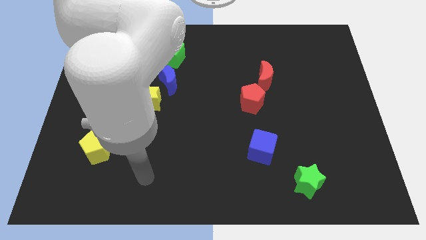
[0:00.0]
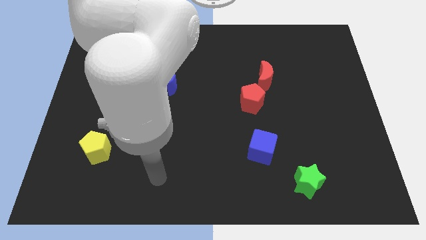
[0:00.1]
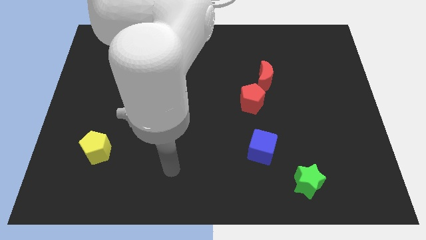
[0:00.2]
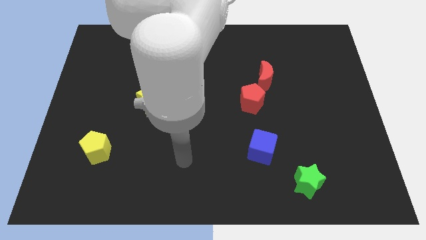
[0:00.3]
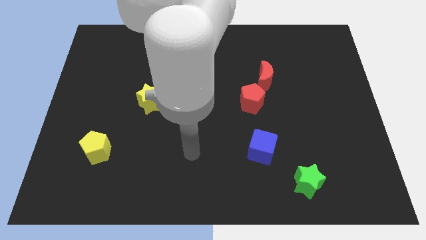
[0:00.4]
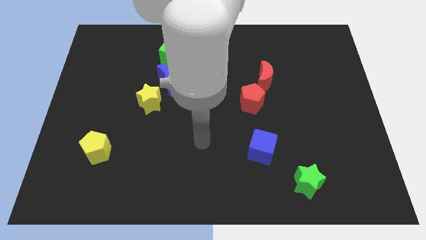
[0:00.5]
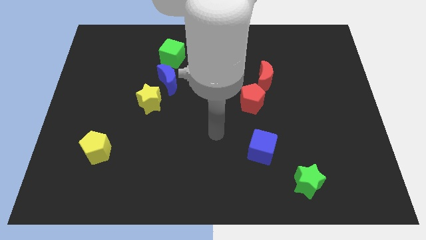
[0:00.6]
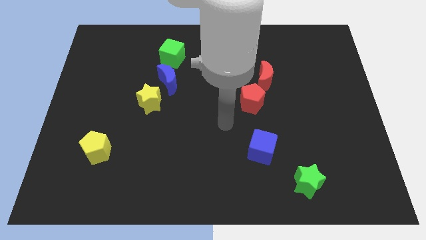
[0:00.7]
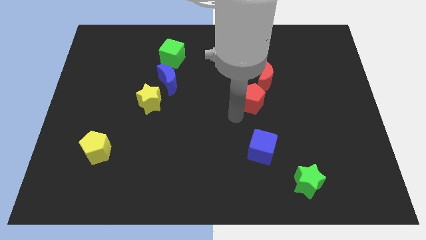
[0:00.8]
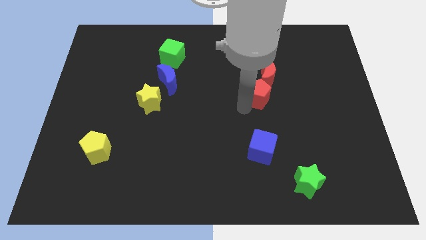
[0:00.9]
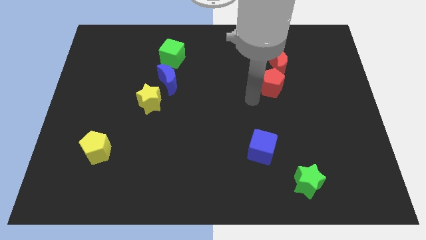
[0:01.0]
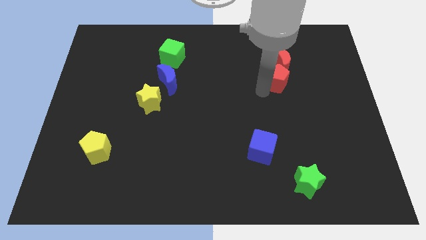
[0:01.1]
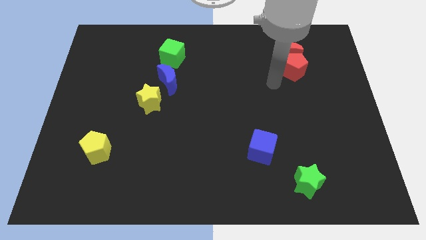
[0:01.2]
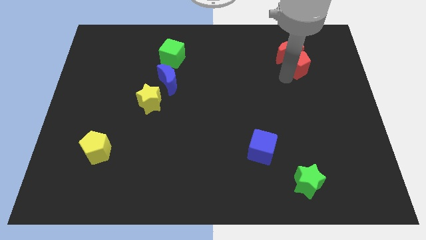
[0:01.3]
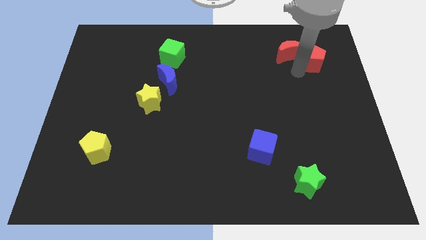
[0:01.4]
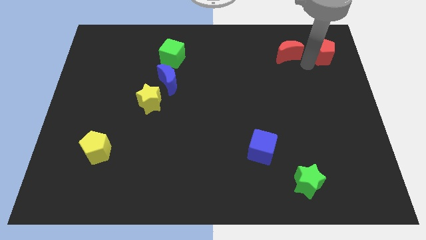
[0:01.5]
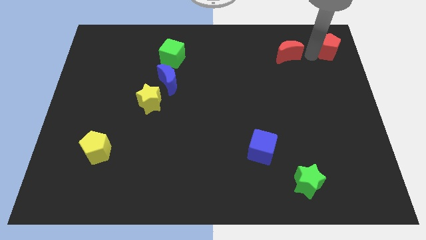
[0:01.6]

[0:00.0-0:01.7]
pull the red moon apart from the red pentagon

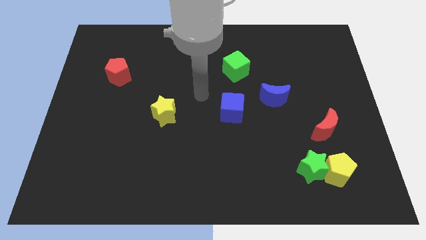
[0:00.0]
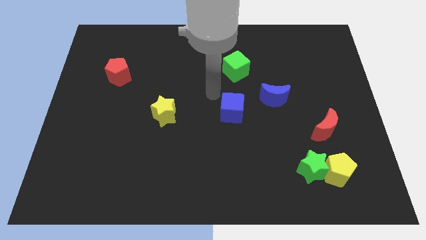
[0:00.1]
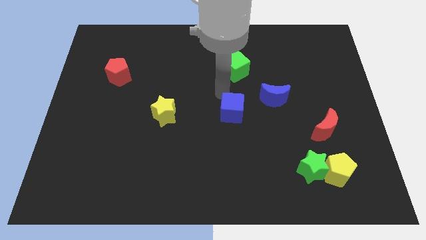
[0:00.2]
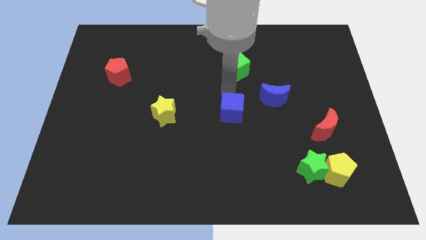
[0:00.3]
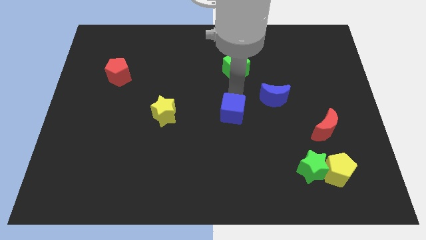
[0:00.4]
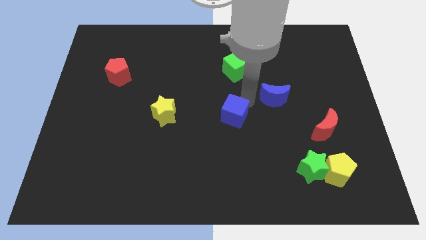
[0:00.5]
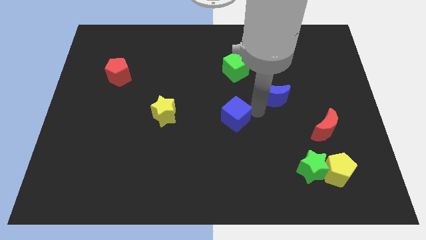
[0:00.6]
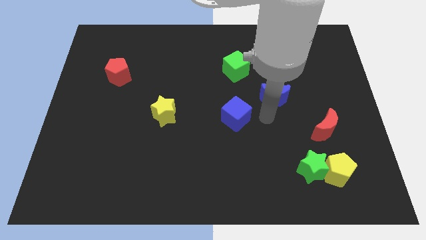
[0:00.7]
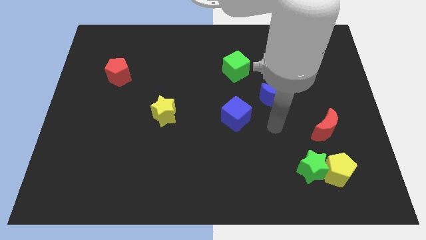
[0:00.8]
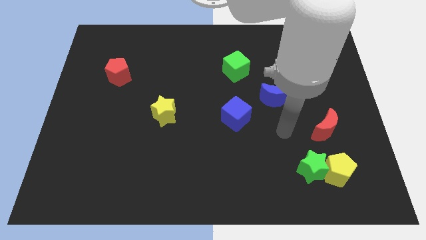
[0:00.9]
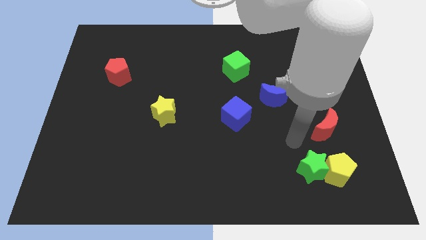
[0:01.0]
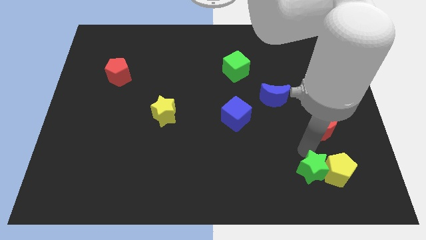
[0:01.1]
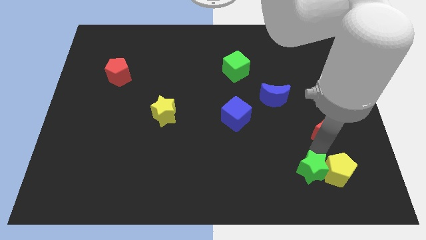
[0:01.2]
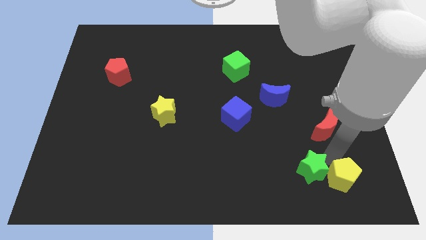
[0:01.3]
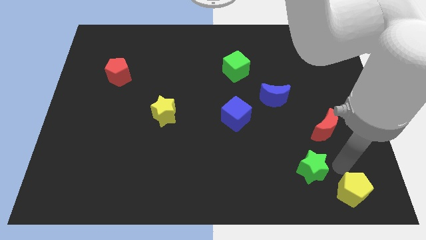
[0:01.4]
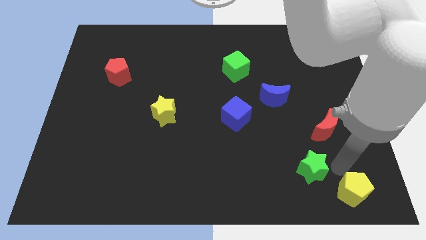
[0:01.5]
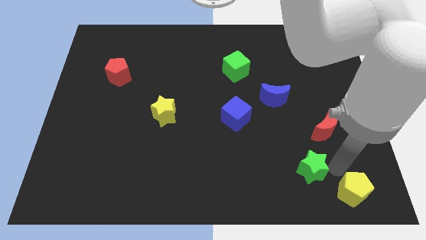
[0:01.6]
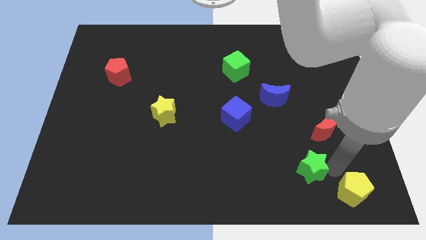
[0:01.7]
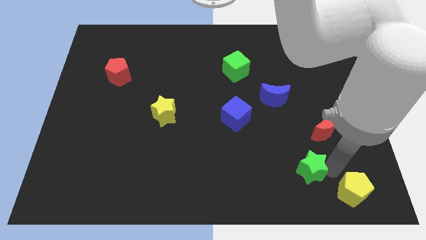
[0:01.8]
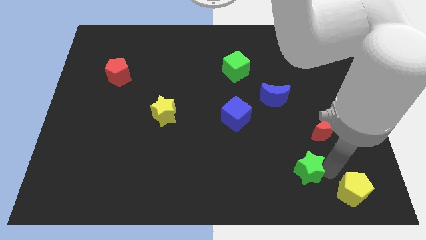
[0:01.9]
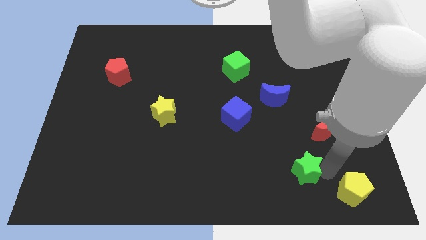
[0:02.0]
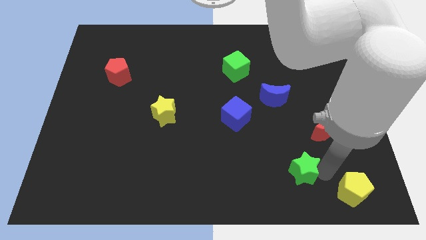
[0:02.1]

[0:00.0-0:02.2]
separate the green star from the yellow pentagon

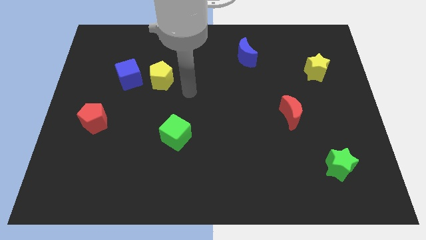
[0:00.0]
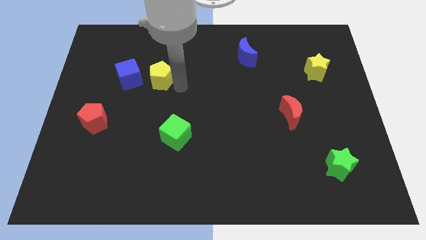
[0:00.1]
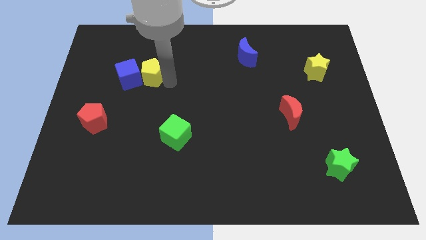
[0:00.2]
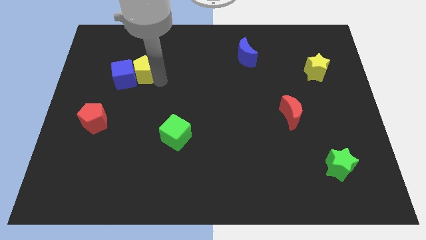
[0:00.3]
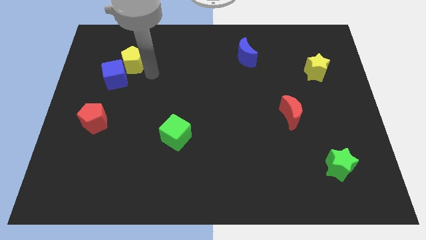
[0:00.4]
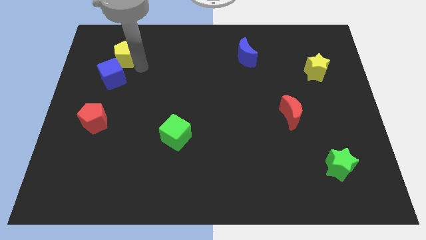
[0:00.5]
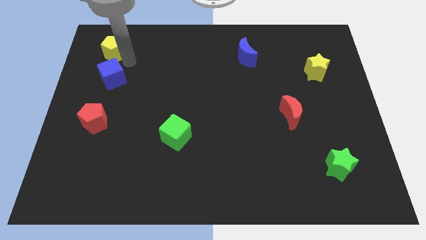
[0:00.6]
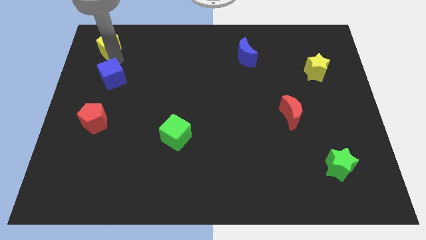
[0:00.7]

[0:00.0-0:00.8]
separate the blue cube from the yellow pentagon

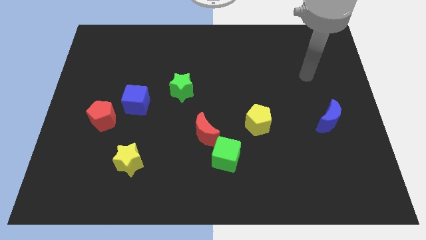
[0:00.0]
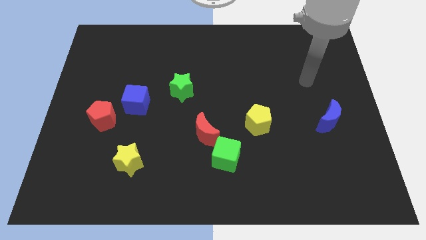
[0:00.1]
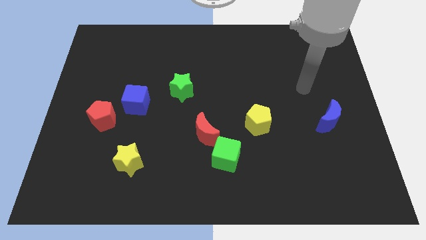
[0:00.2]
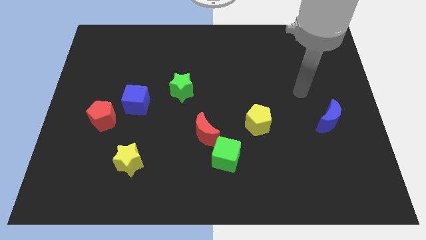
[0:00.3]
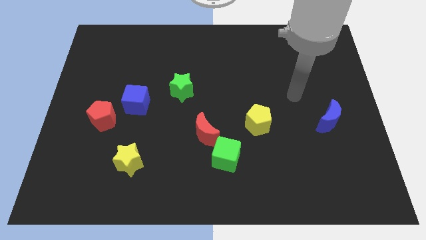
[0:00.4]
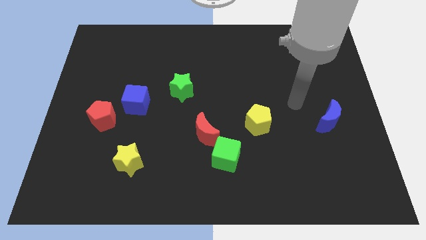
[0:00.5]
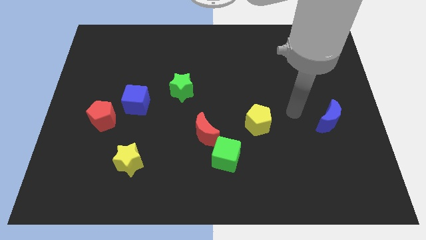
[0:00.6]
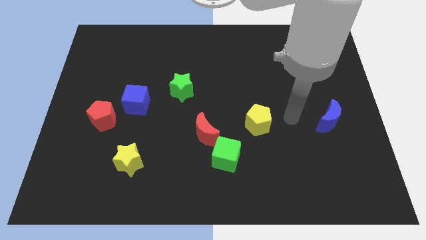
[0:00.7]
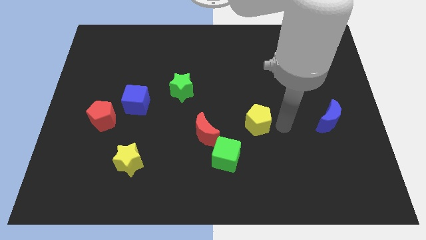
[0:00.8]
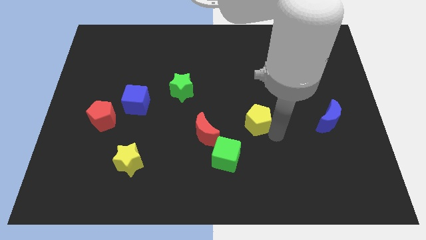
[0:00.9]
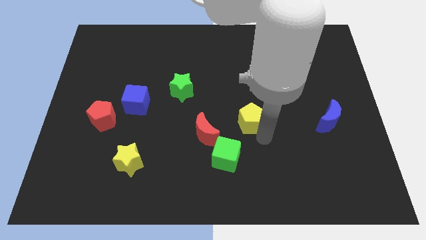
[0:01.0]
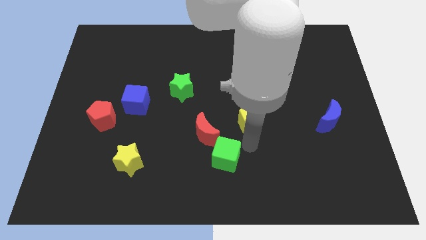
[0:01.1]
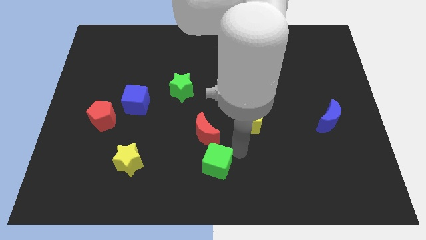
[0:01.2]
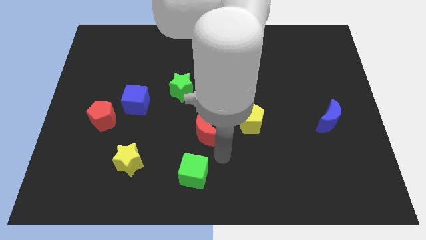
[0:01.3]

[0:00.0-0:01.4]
pull the red moon apart from the green cube

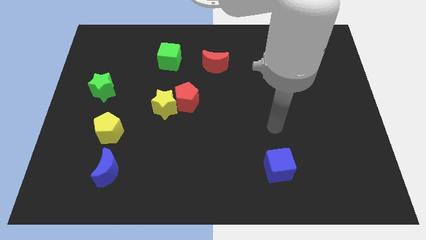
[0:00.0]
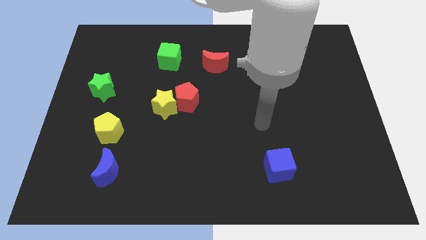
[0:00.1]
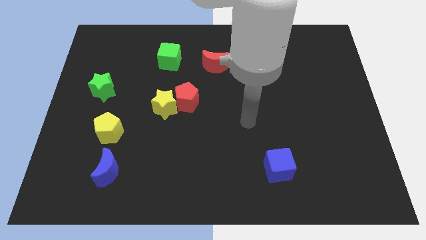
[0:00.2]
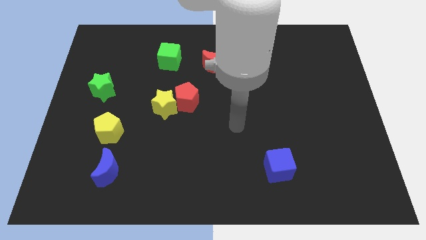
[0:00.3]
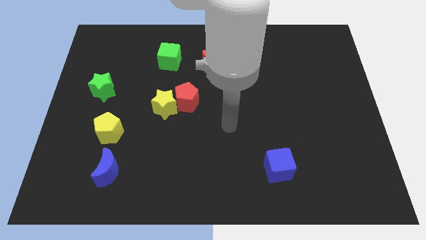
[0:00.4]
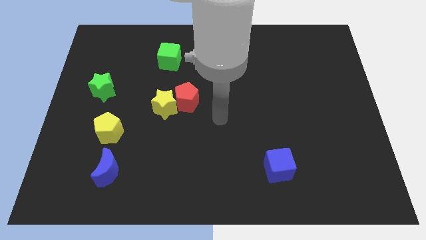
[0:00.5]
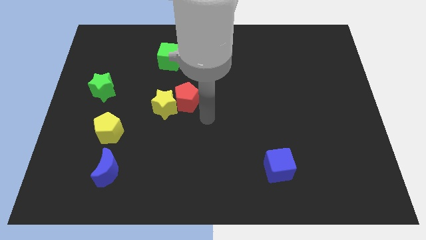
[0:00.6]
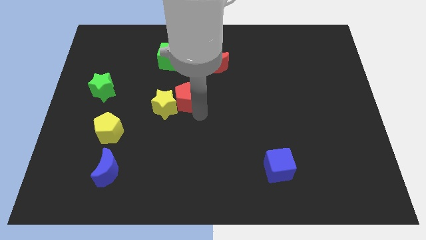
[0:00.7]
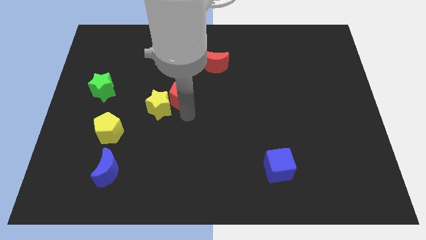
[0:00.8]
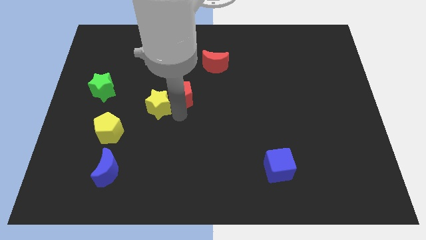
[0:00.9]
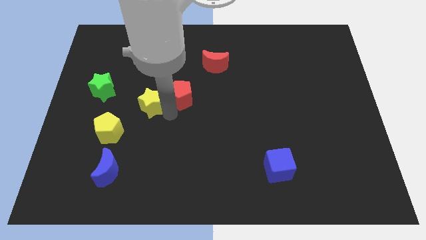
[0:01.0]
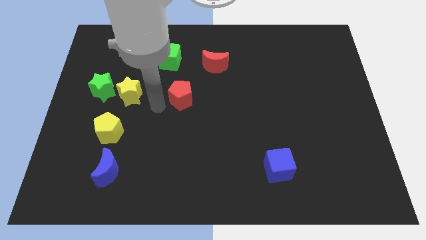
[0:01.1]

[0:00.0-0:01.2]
separate the red pentagon from the yellow star

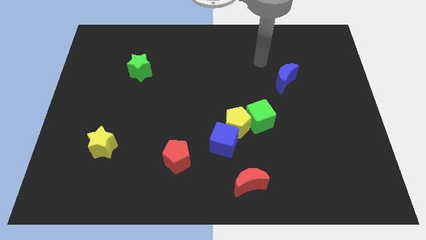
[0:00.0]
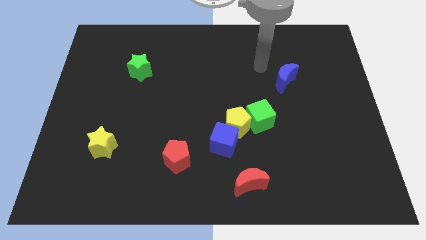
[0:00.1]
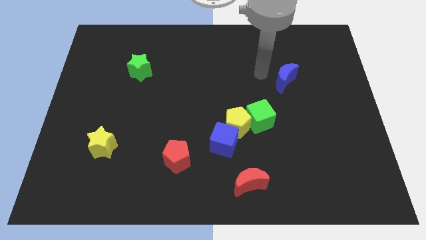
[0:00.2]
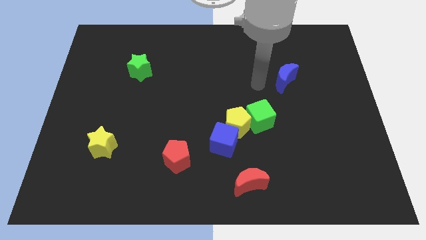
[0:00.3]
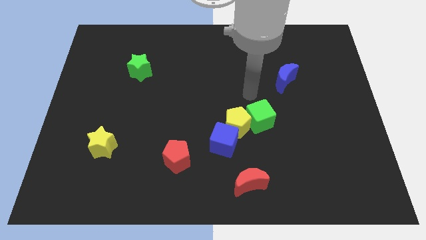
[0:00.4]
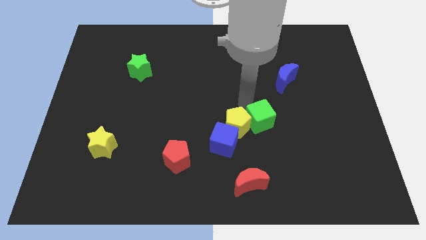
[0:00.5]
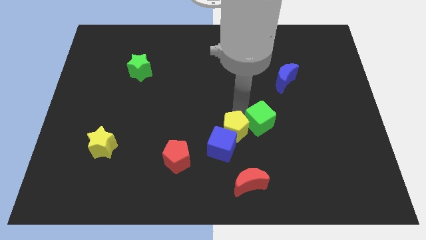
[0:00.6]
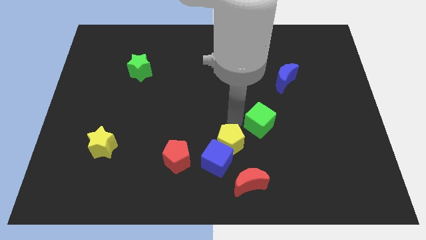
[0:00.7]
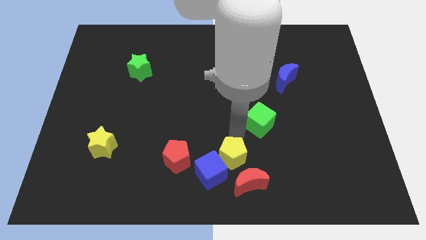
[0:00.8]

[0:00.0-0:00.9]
pull the green cube apart from the yellow pentagon

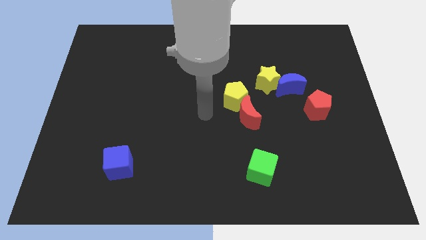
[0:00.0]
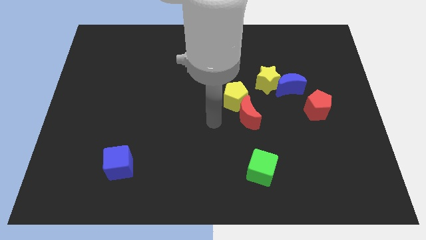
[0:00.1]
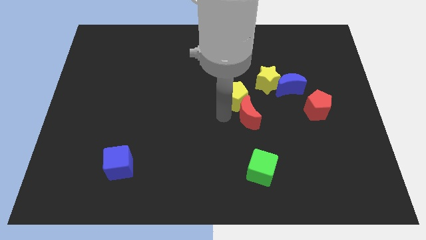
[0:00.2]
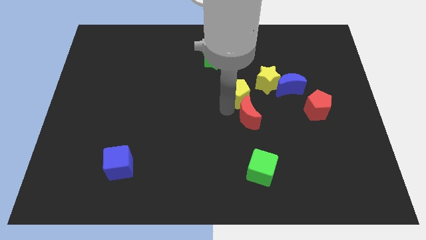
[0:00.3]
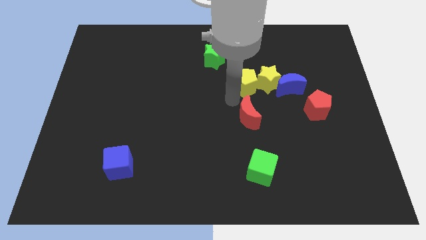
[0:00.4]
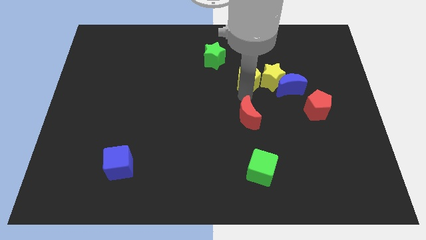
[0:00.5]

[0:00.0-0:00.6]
pull the red moon apart from the yellow pentagon

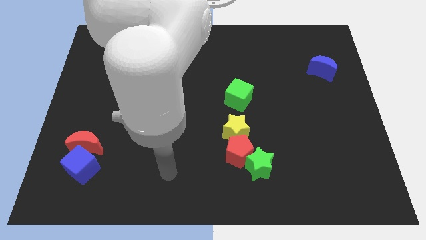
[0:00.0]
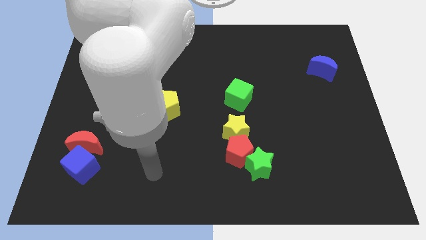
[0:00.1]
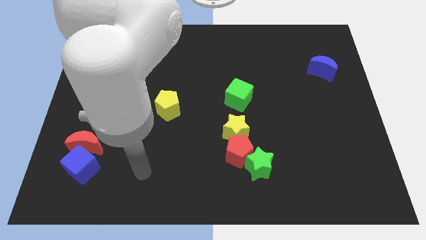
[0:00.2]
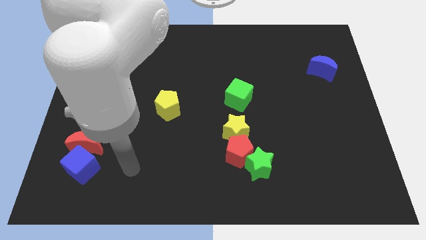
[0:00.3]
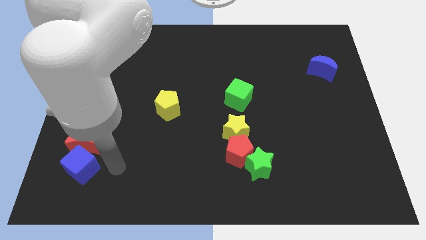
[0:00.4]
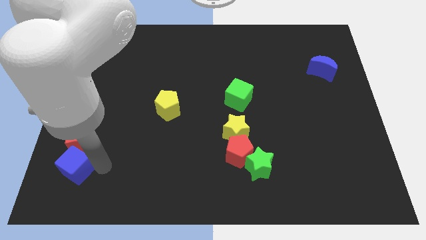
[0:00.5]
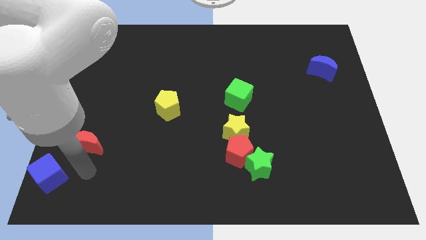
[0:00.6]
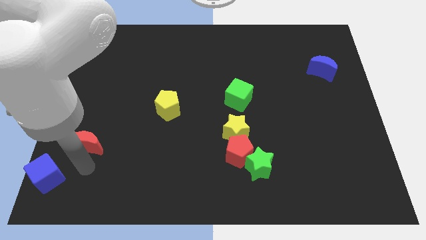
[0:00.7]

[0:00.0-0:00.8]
pull the red moon apart from the blue cube
